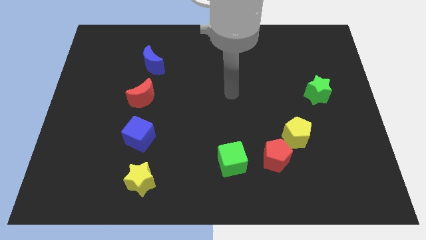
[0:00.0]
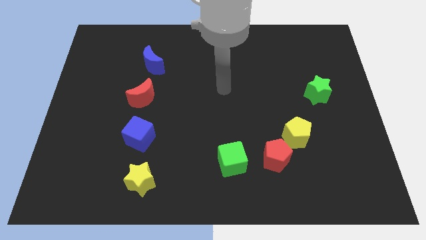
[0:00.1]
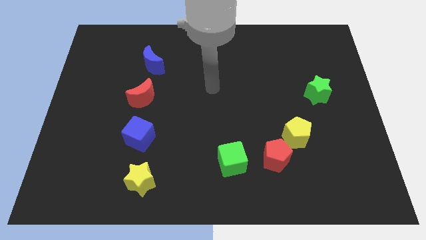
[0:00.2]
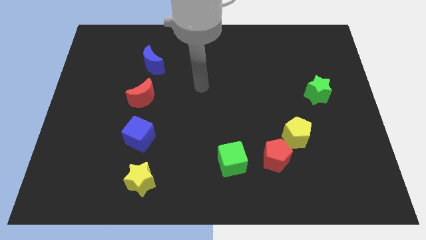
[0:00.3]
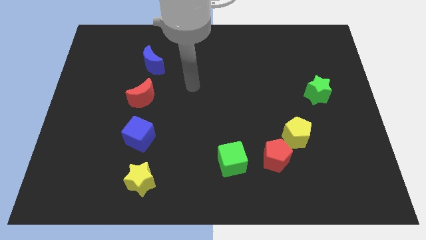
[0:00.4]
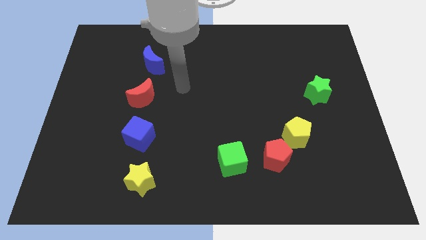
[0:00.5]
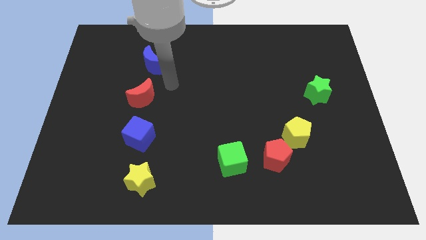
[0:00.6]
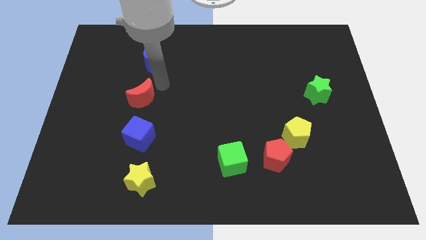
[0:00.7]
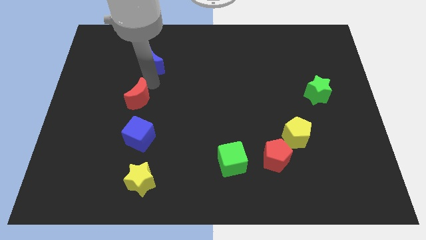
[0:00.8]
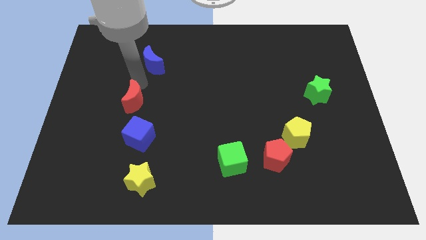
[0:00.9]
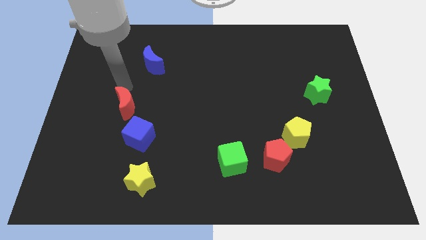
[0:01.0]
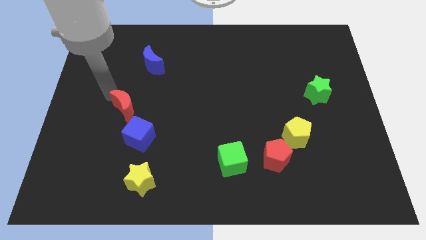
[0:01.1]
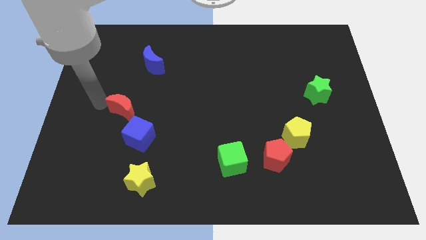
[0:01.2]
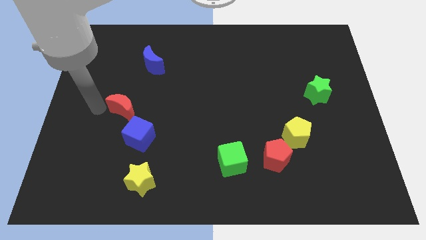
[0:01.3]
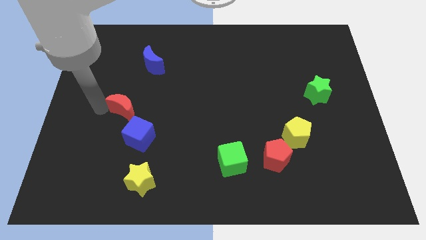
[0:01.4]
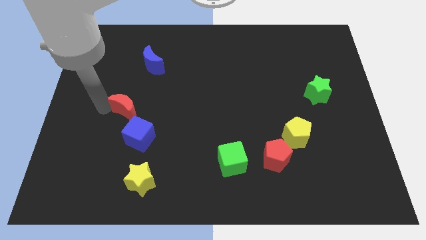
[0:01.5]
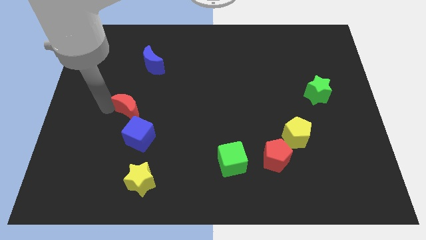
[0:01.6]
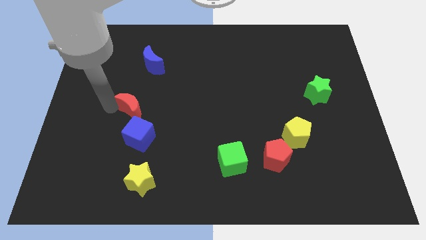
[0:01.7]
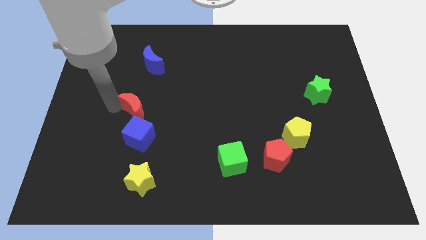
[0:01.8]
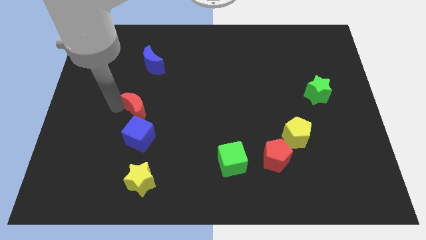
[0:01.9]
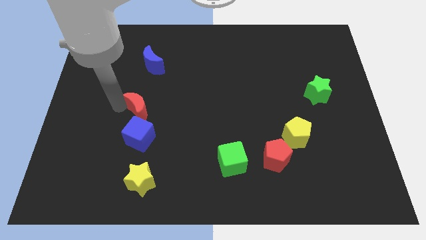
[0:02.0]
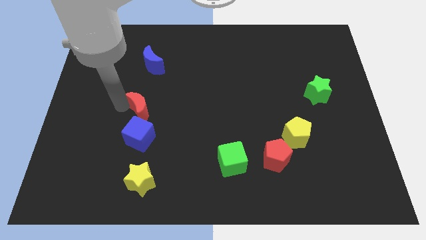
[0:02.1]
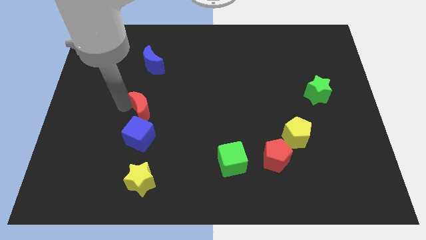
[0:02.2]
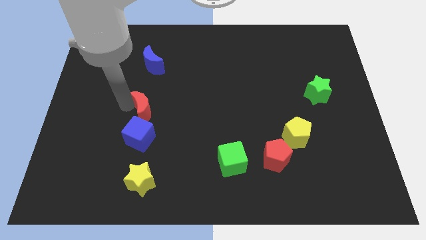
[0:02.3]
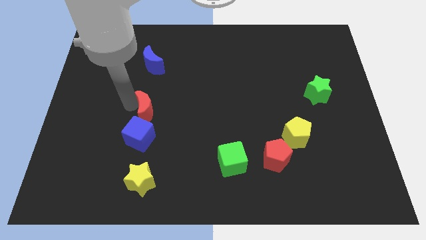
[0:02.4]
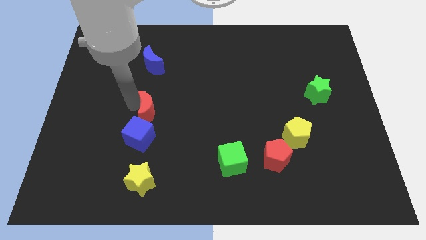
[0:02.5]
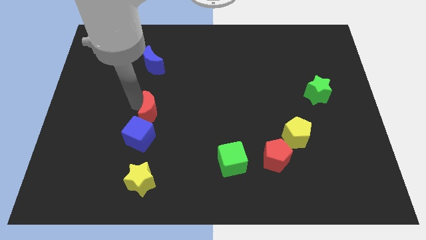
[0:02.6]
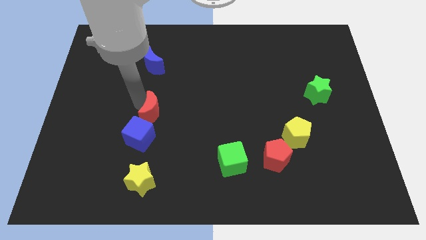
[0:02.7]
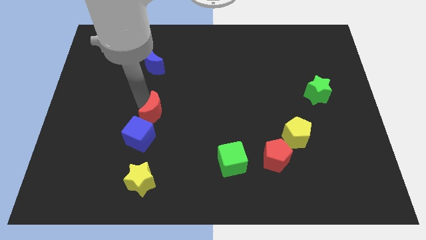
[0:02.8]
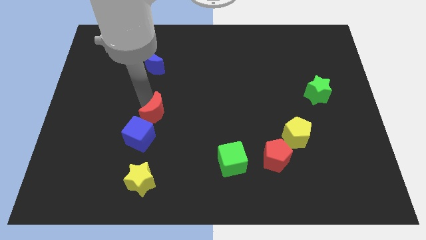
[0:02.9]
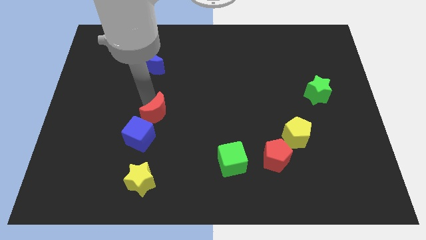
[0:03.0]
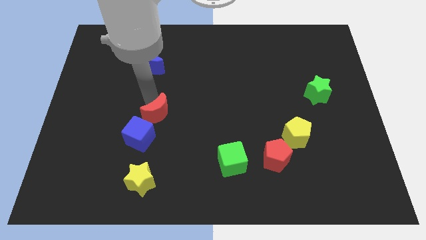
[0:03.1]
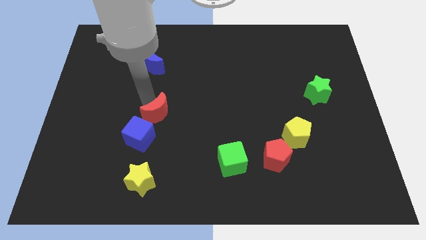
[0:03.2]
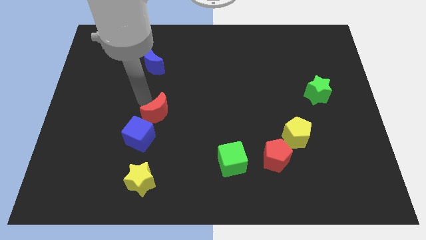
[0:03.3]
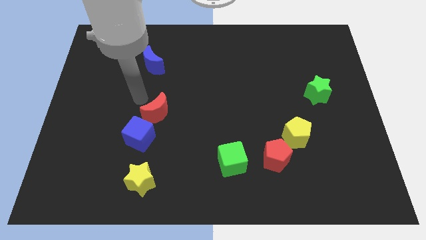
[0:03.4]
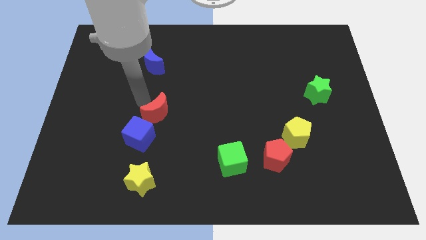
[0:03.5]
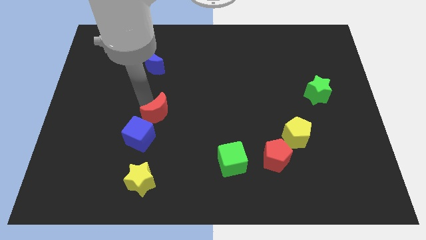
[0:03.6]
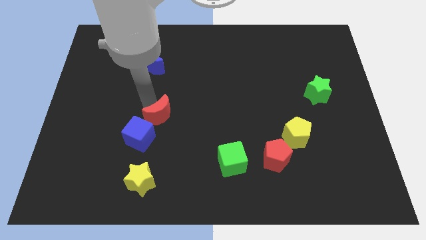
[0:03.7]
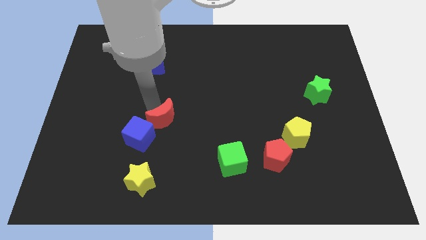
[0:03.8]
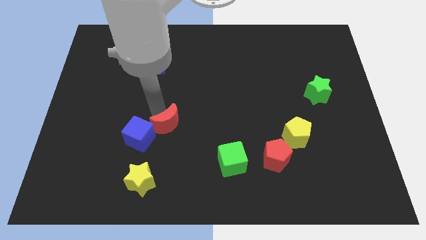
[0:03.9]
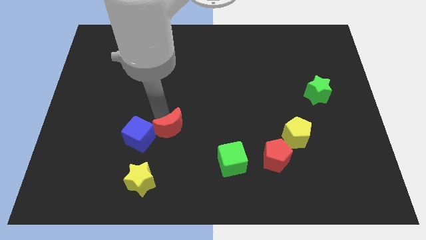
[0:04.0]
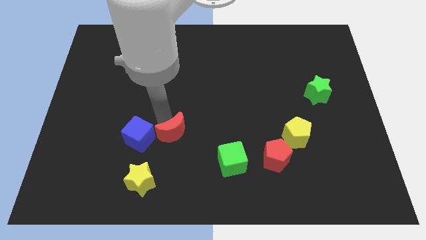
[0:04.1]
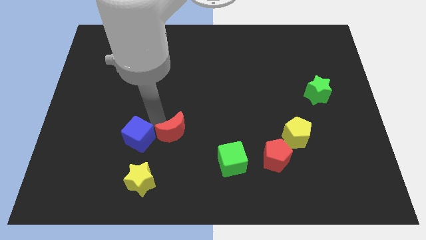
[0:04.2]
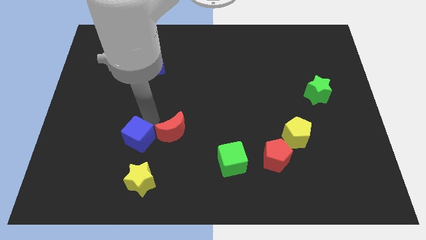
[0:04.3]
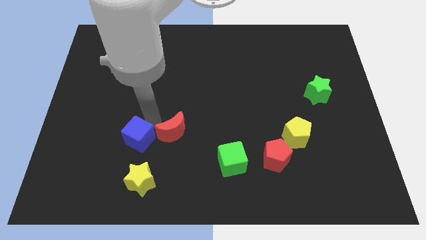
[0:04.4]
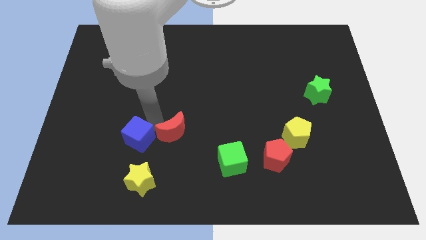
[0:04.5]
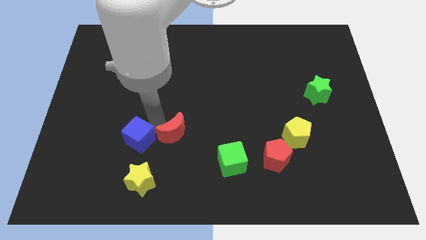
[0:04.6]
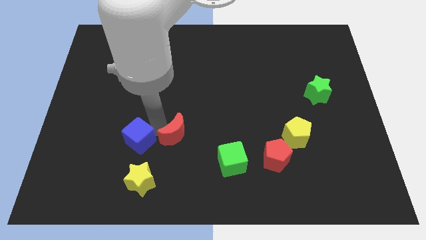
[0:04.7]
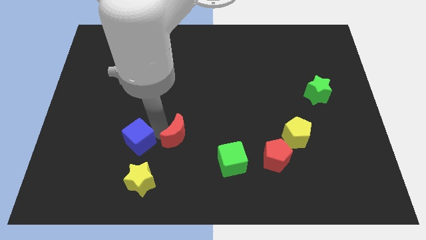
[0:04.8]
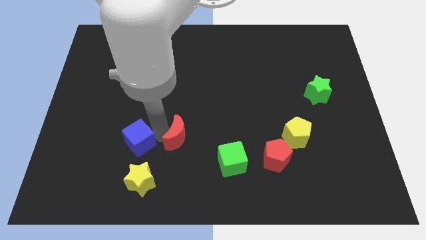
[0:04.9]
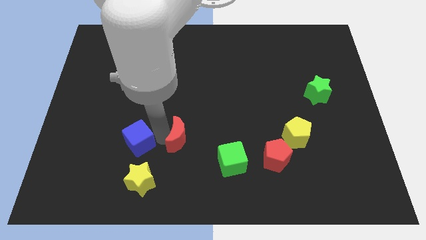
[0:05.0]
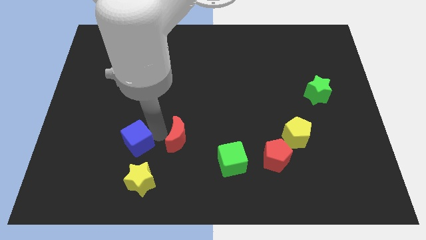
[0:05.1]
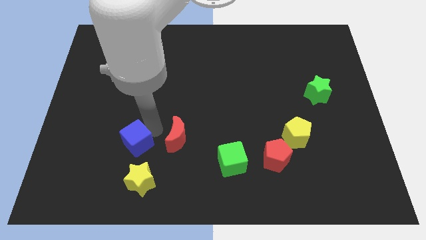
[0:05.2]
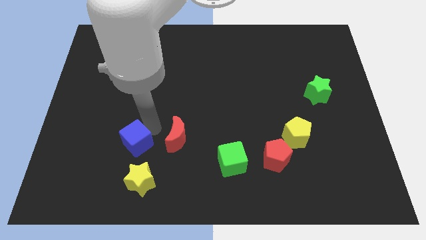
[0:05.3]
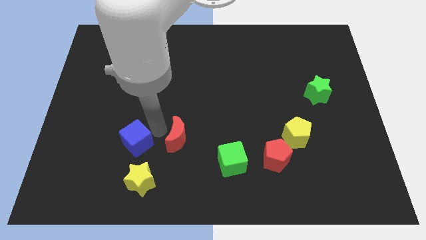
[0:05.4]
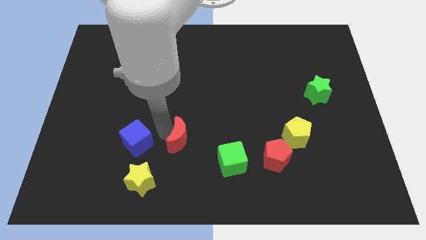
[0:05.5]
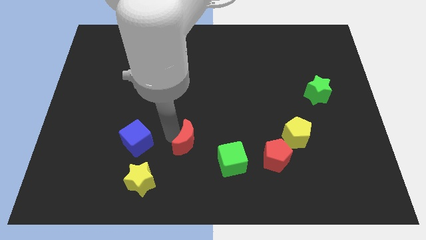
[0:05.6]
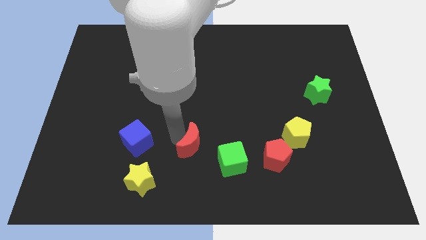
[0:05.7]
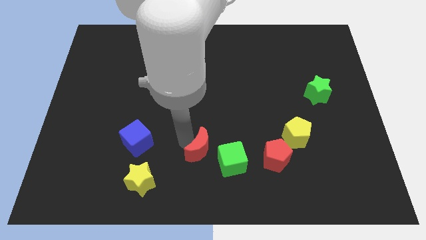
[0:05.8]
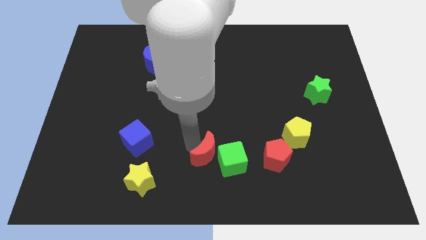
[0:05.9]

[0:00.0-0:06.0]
slide the red moon towards the green cube

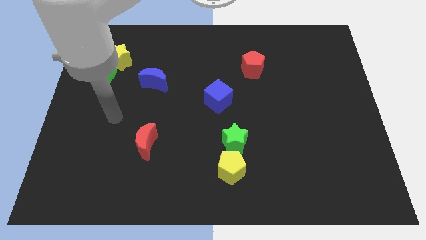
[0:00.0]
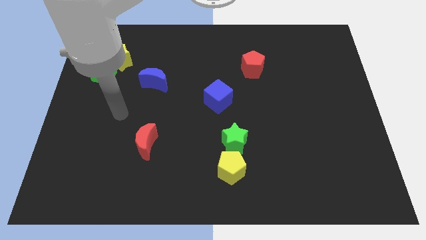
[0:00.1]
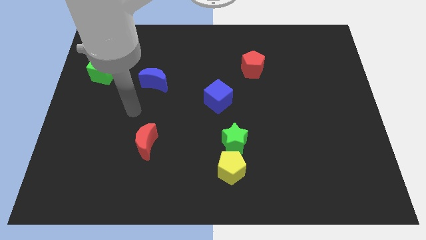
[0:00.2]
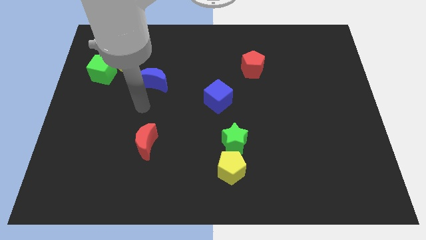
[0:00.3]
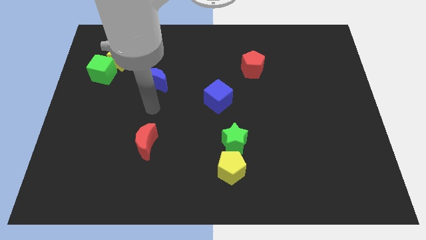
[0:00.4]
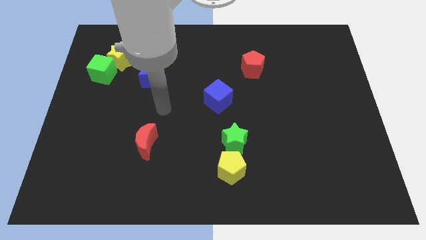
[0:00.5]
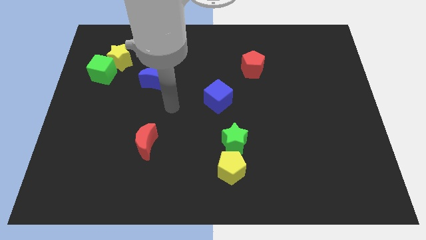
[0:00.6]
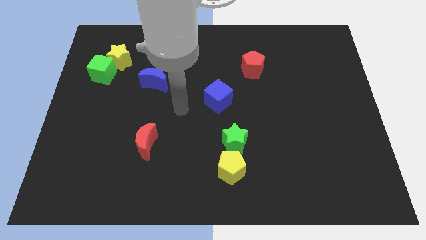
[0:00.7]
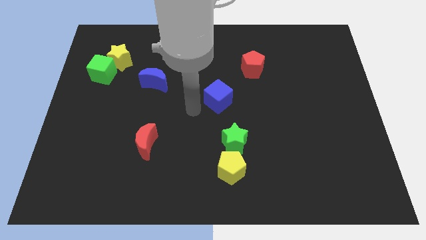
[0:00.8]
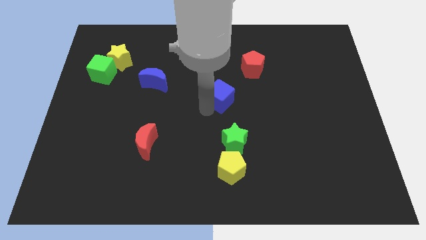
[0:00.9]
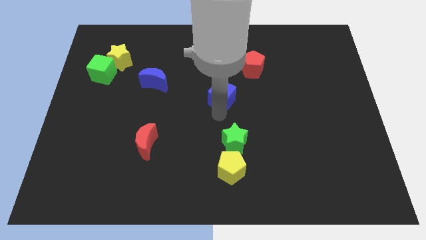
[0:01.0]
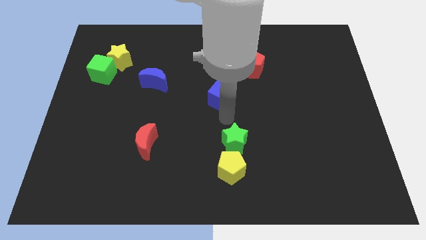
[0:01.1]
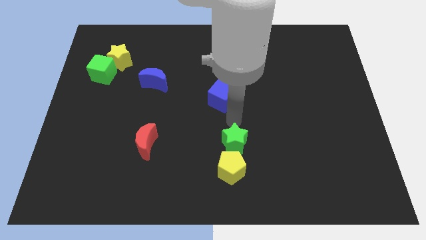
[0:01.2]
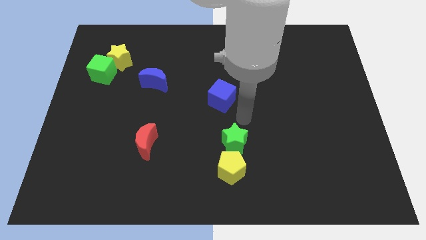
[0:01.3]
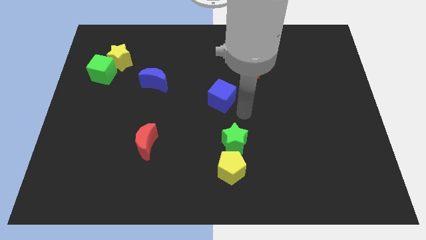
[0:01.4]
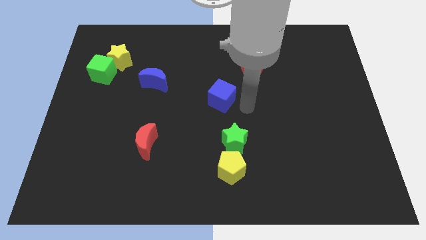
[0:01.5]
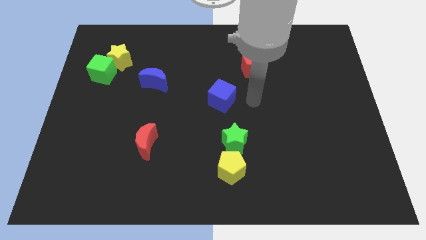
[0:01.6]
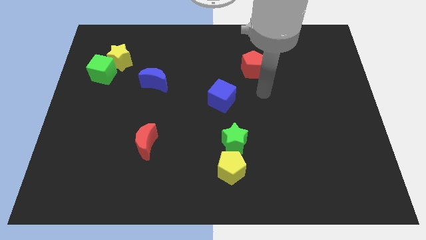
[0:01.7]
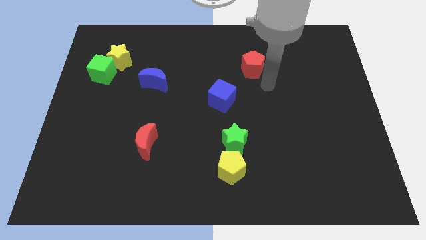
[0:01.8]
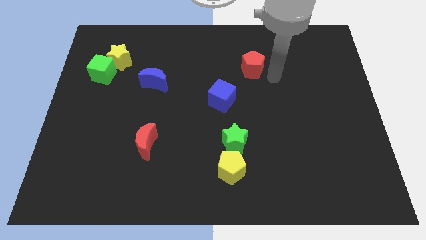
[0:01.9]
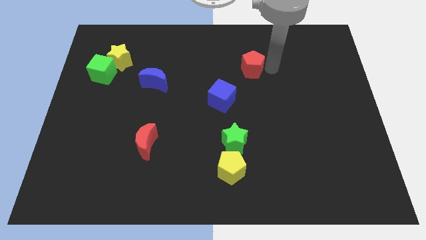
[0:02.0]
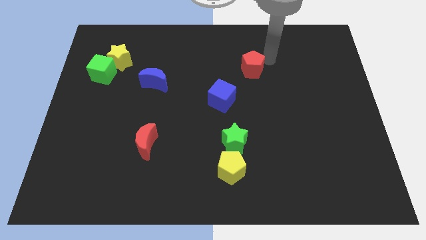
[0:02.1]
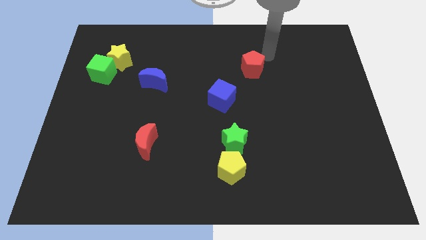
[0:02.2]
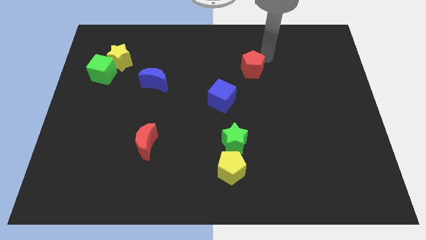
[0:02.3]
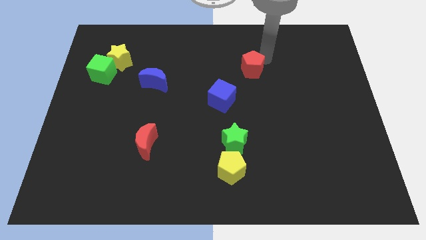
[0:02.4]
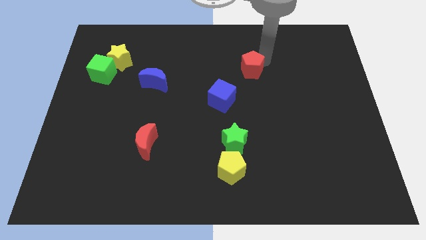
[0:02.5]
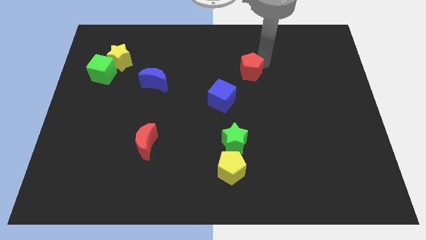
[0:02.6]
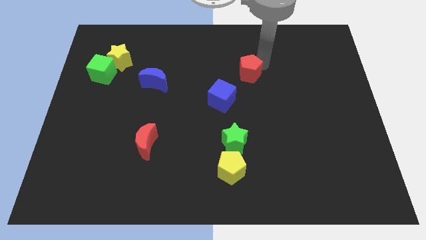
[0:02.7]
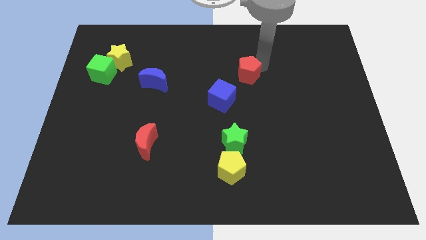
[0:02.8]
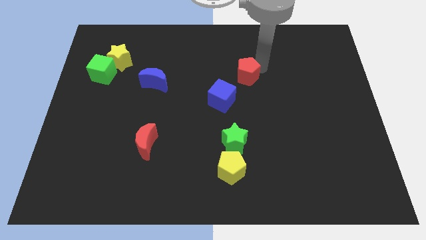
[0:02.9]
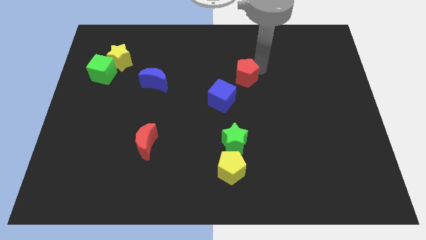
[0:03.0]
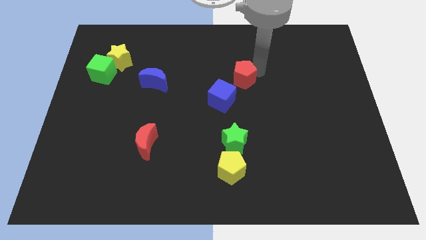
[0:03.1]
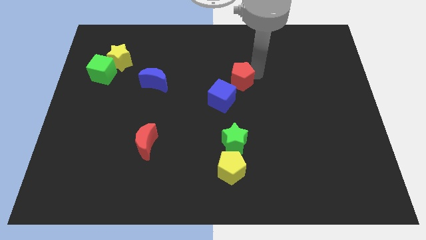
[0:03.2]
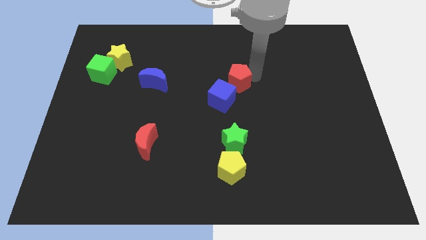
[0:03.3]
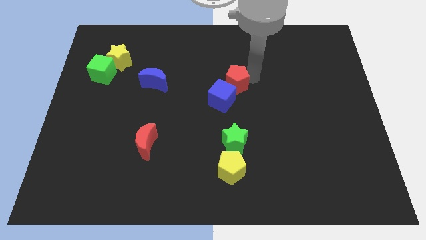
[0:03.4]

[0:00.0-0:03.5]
slide the red pentagon towards the blue cube
